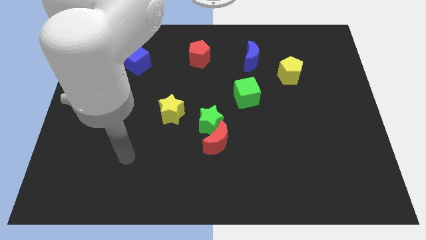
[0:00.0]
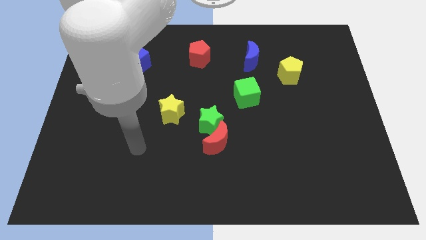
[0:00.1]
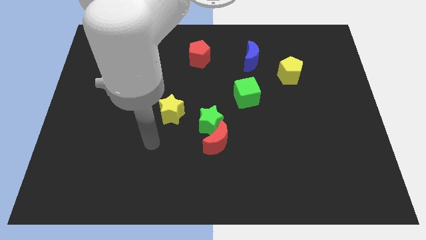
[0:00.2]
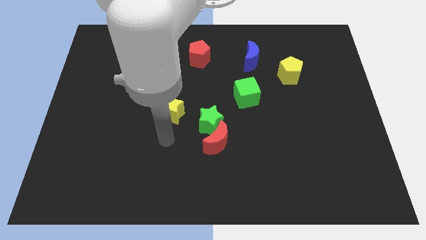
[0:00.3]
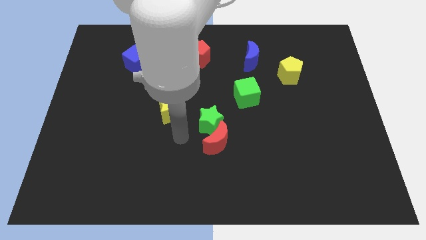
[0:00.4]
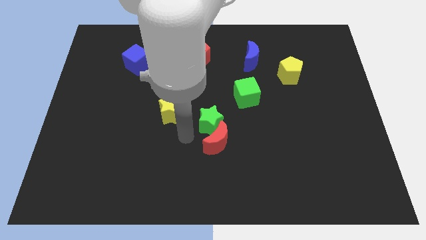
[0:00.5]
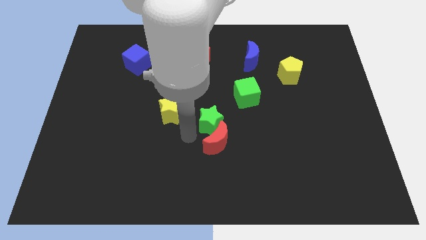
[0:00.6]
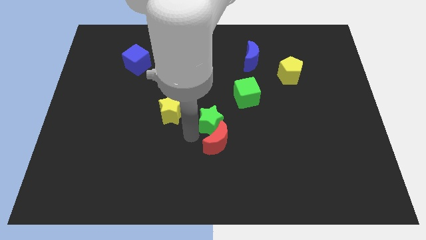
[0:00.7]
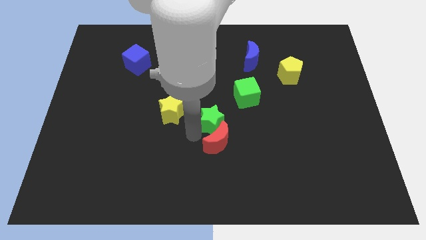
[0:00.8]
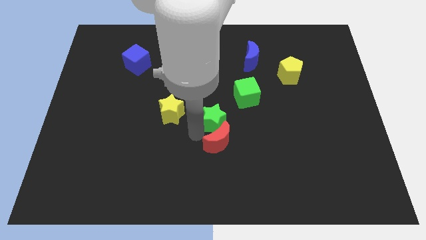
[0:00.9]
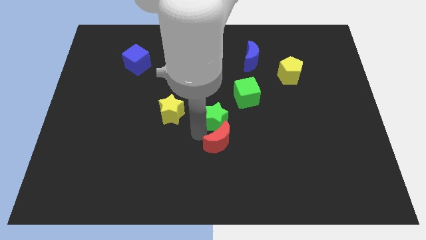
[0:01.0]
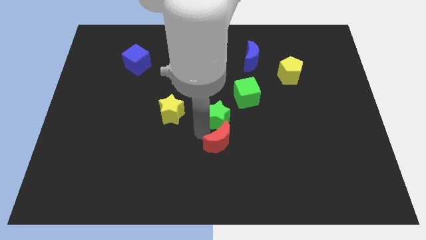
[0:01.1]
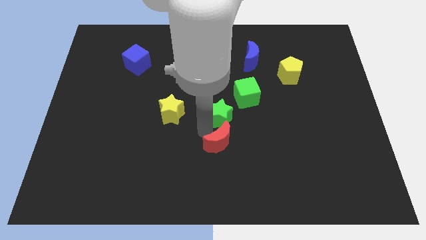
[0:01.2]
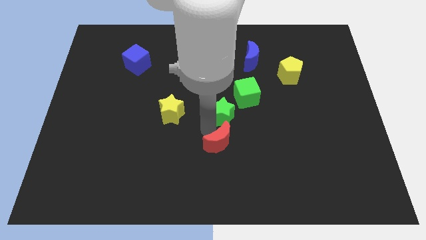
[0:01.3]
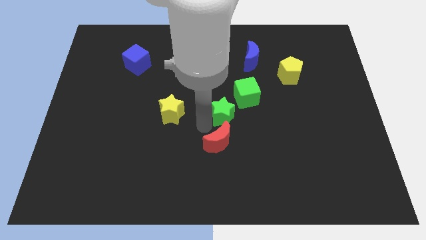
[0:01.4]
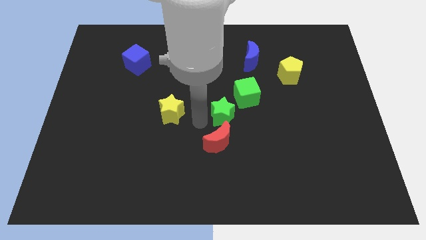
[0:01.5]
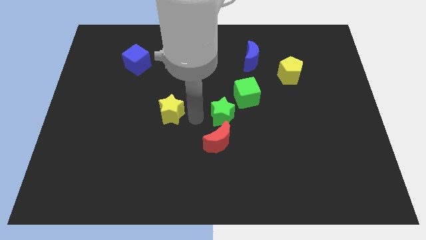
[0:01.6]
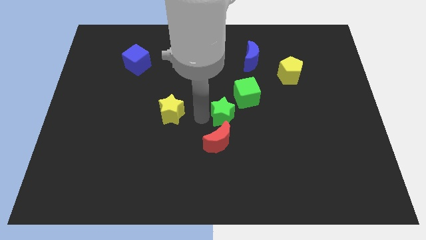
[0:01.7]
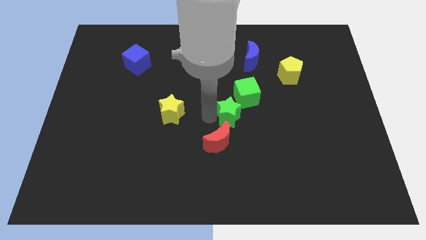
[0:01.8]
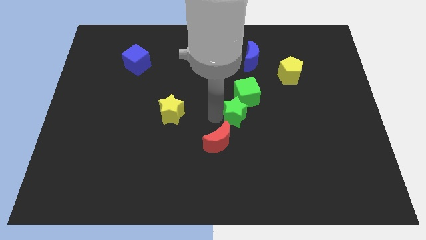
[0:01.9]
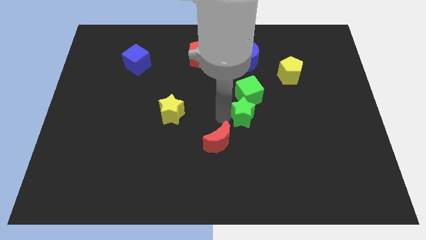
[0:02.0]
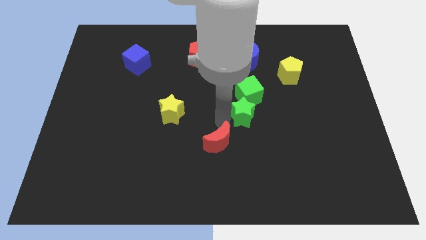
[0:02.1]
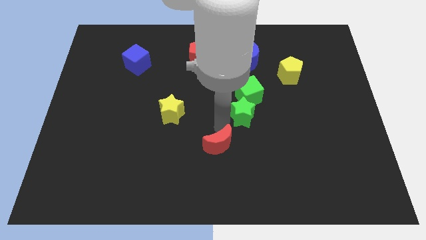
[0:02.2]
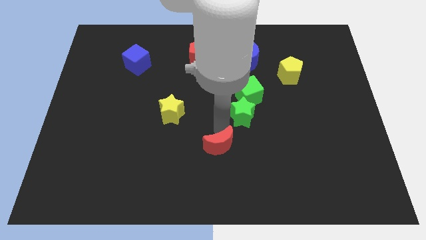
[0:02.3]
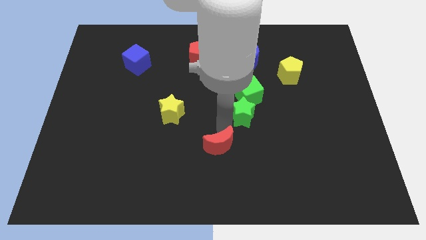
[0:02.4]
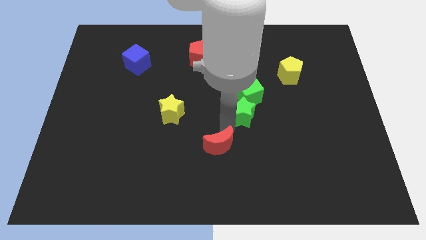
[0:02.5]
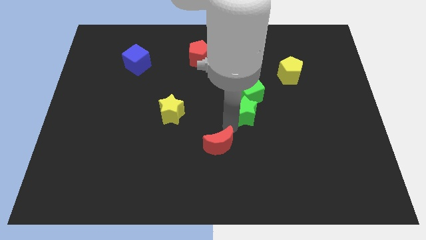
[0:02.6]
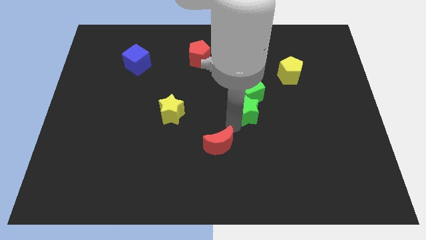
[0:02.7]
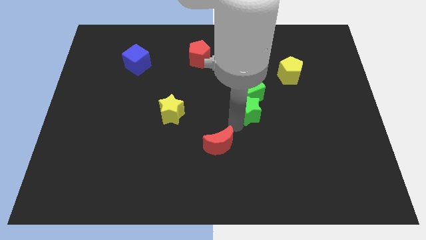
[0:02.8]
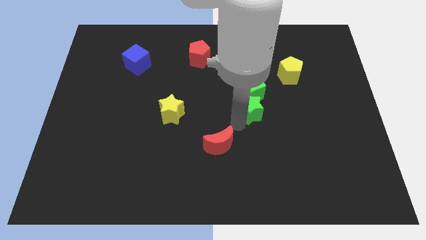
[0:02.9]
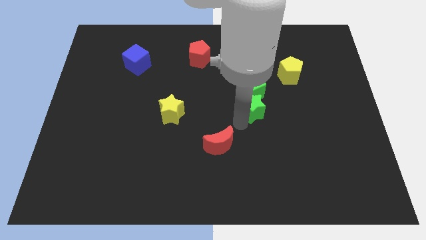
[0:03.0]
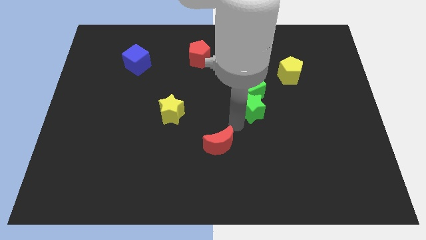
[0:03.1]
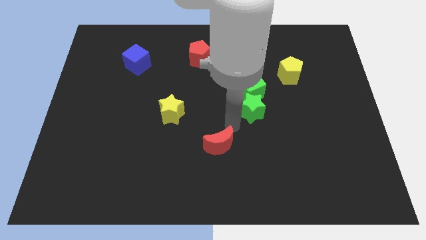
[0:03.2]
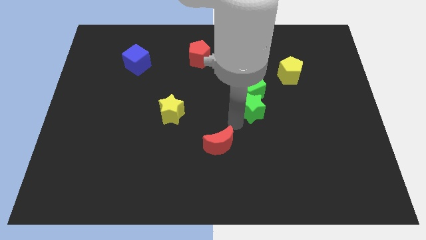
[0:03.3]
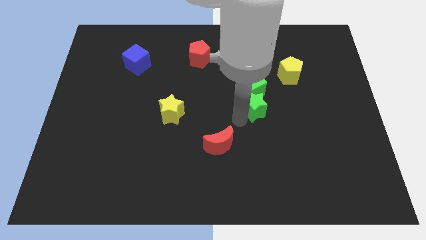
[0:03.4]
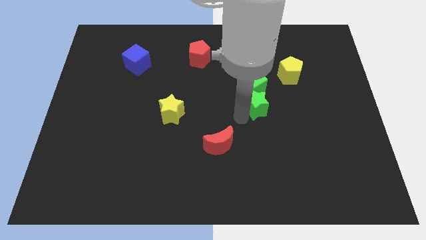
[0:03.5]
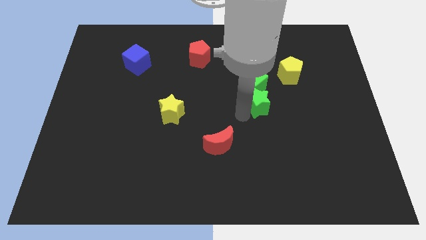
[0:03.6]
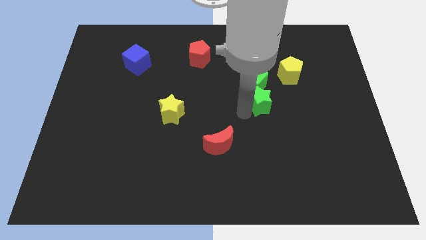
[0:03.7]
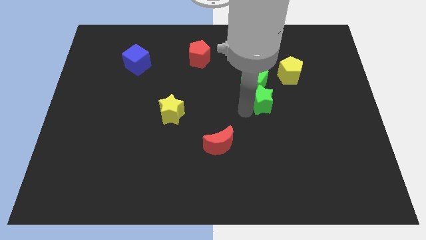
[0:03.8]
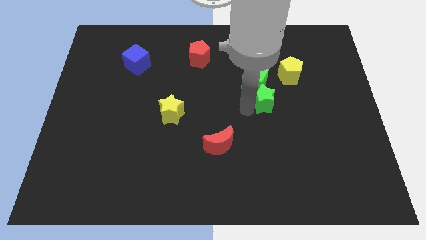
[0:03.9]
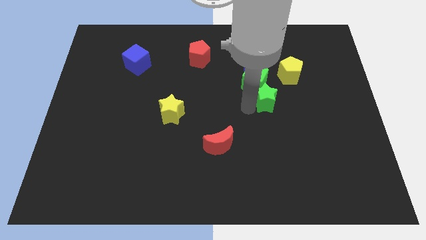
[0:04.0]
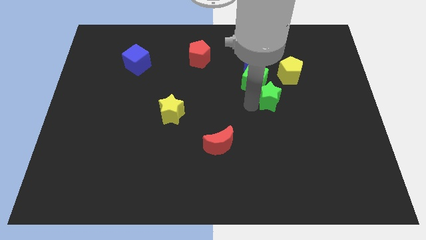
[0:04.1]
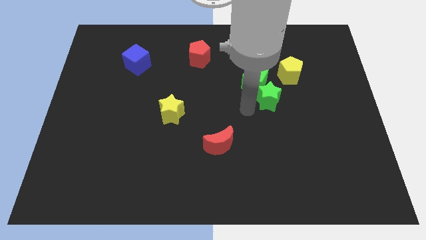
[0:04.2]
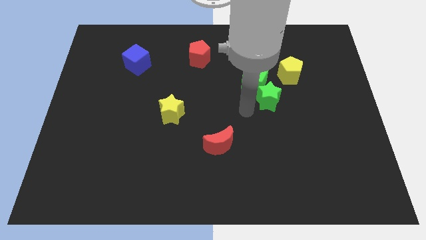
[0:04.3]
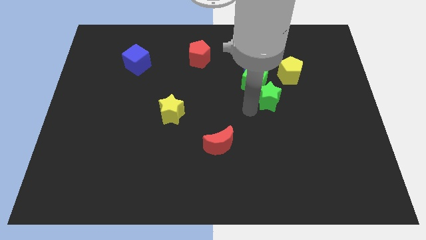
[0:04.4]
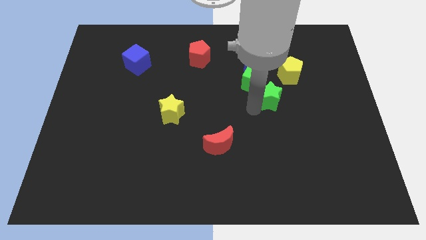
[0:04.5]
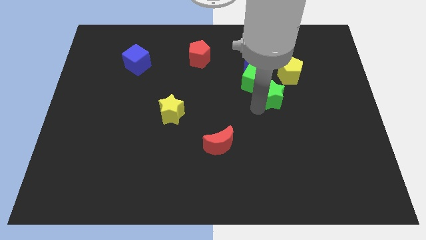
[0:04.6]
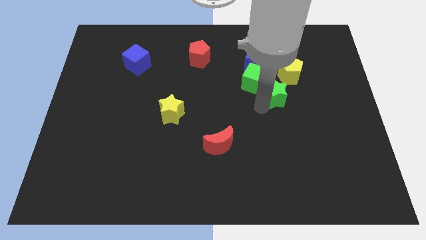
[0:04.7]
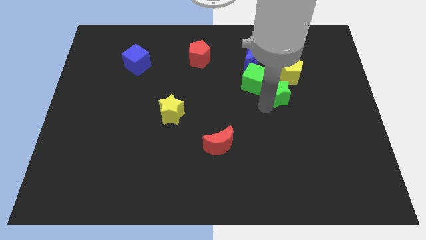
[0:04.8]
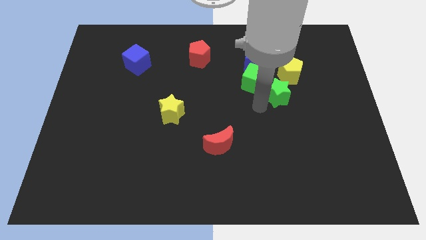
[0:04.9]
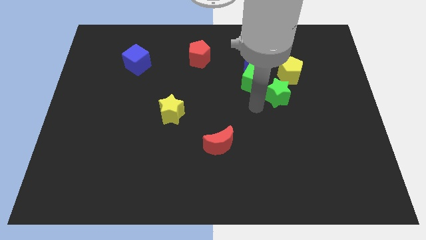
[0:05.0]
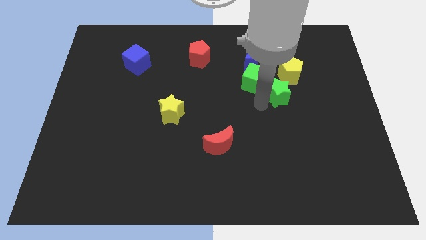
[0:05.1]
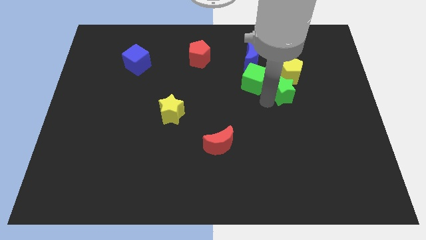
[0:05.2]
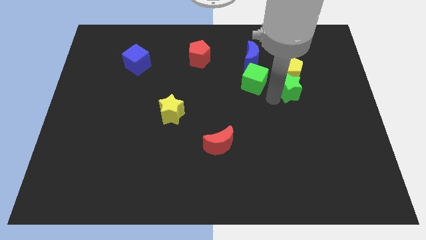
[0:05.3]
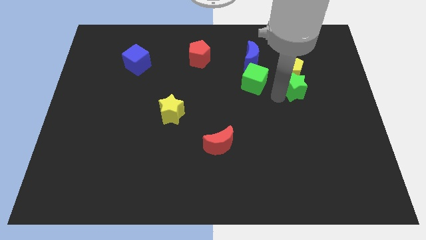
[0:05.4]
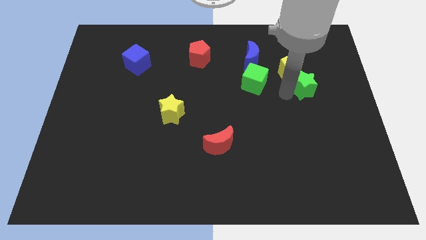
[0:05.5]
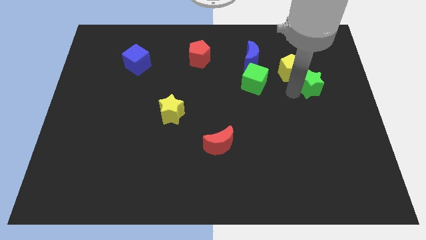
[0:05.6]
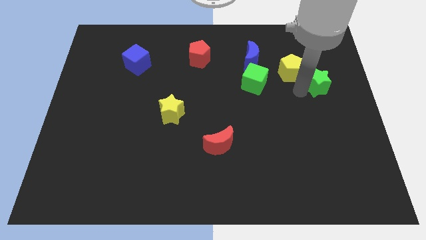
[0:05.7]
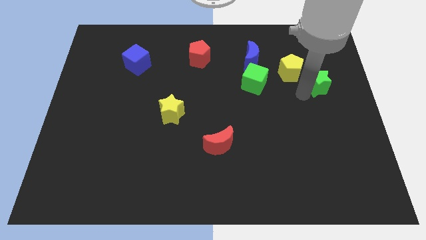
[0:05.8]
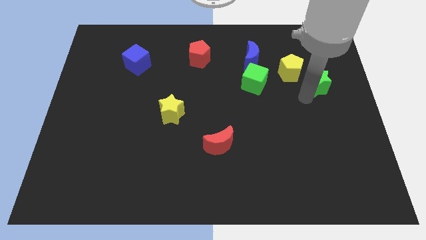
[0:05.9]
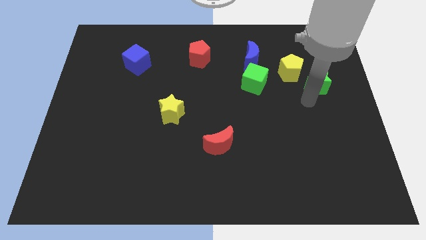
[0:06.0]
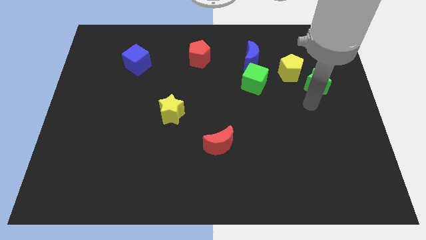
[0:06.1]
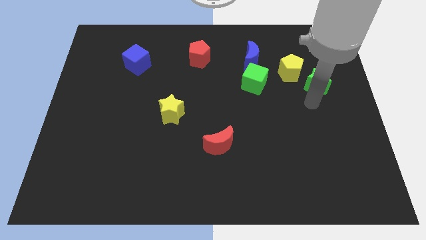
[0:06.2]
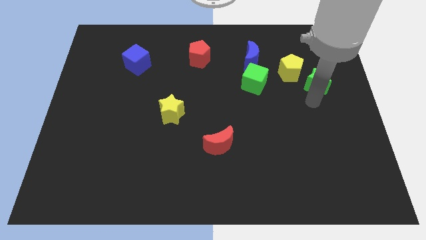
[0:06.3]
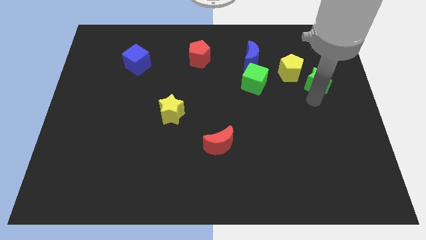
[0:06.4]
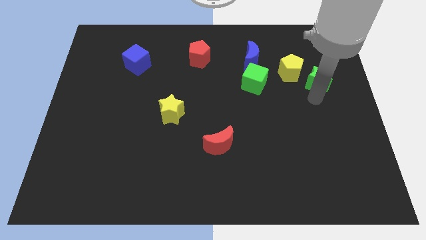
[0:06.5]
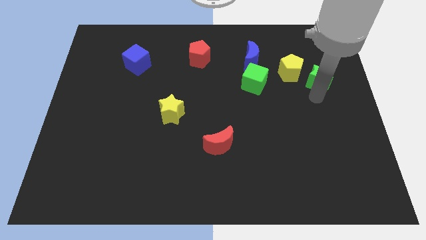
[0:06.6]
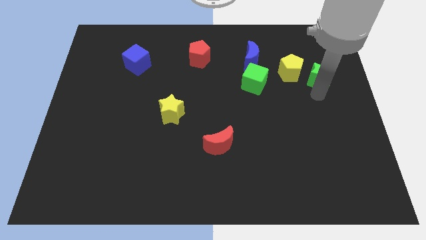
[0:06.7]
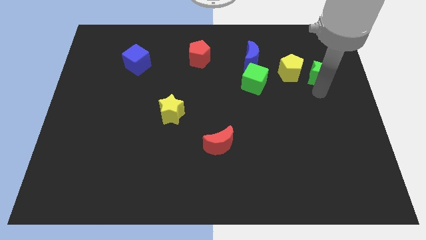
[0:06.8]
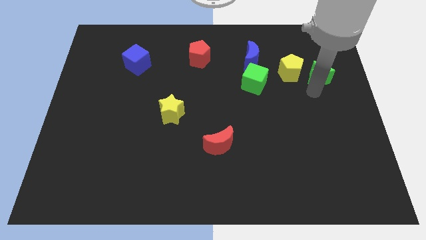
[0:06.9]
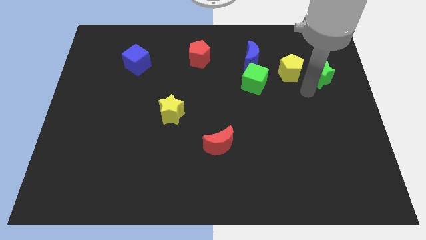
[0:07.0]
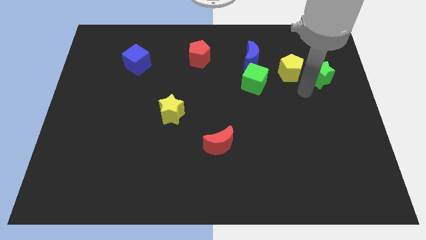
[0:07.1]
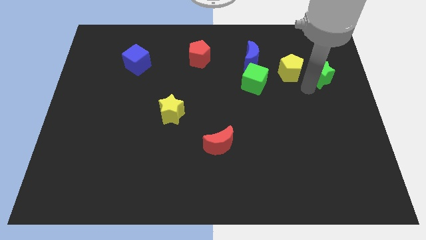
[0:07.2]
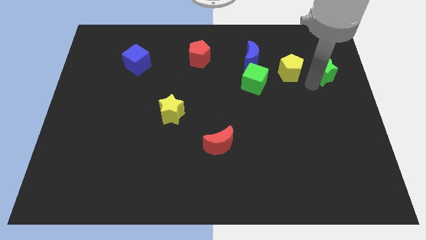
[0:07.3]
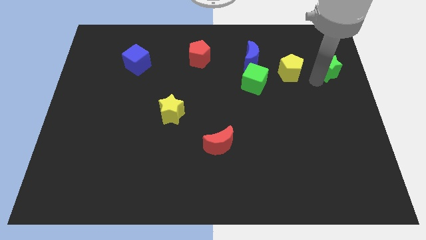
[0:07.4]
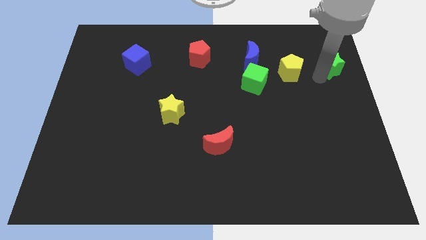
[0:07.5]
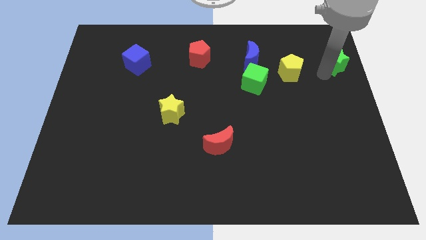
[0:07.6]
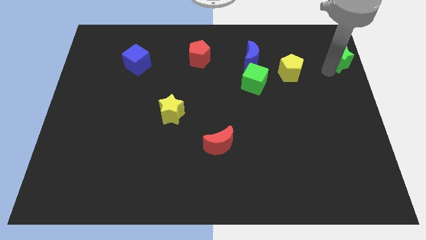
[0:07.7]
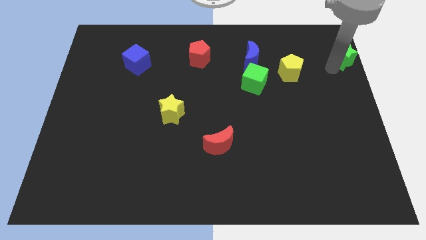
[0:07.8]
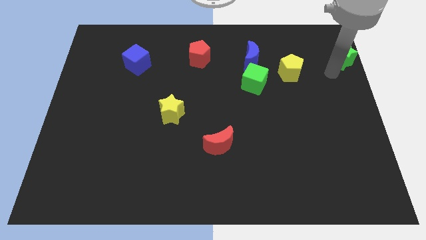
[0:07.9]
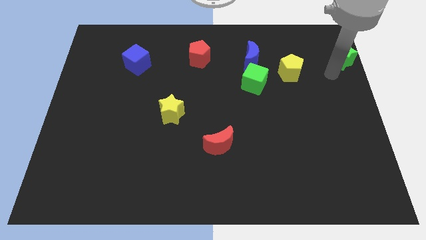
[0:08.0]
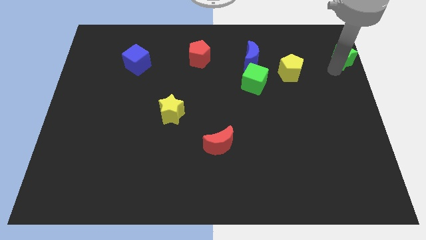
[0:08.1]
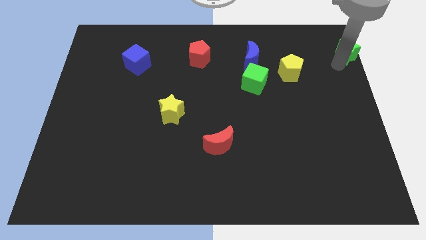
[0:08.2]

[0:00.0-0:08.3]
put the green star to the top right of the board
